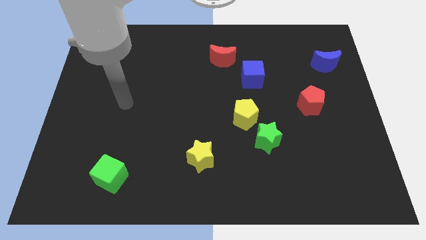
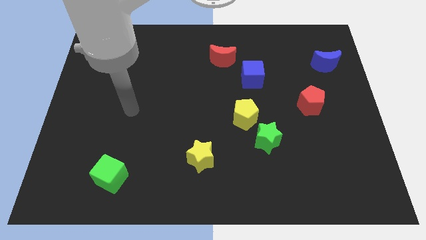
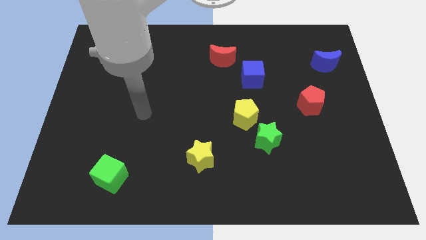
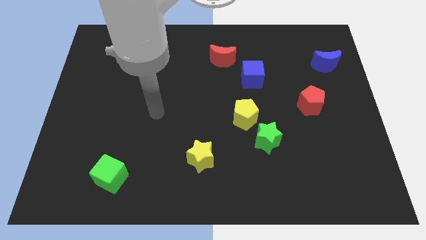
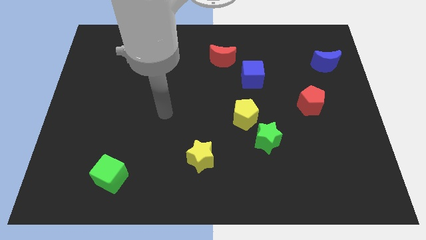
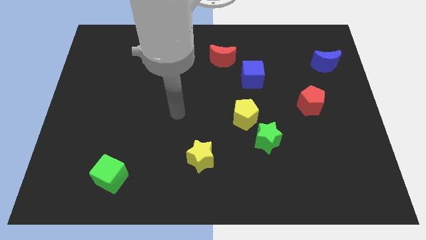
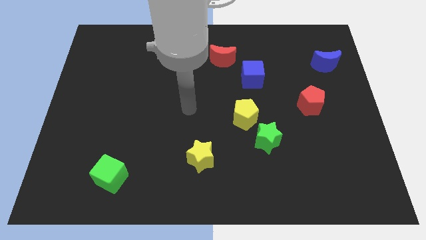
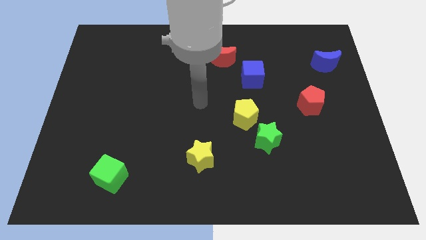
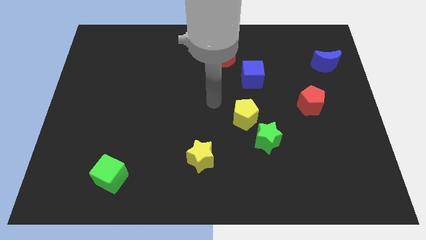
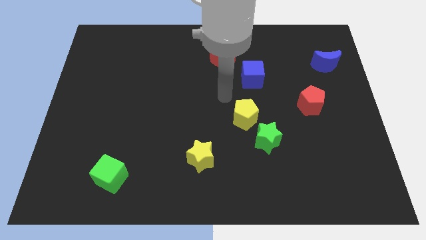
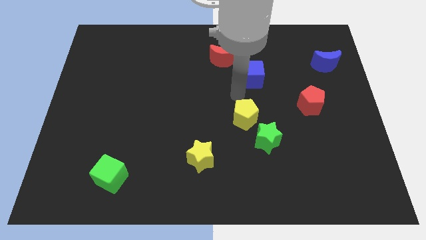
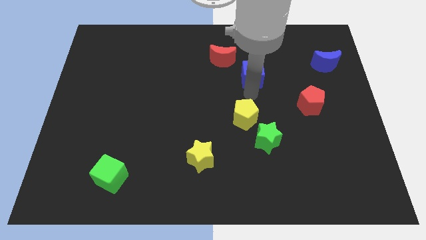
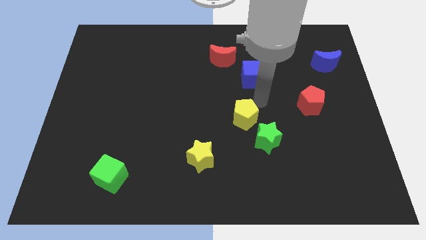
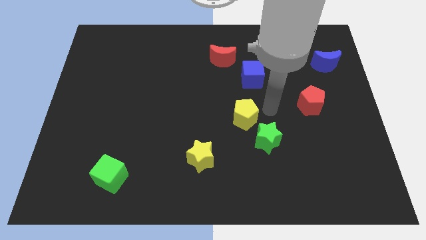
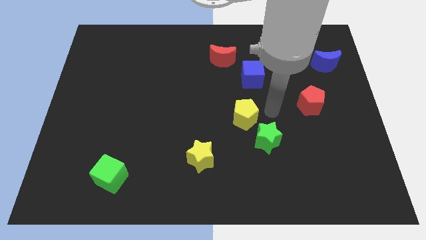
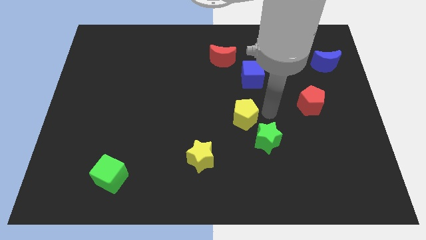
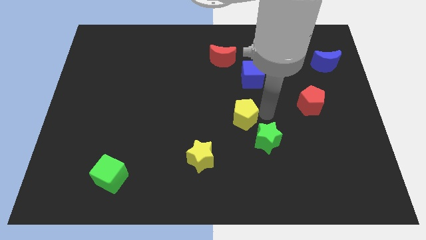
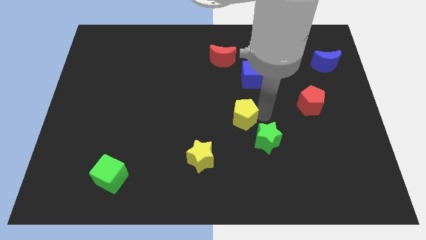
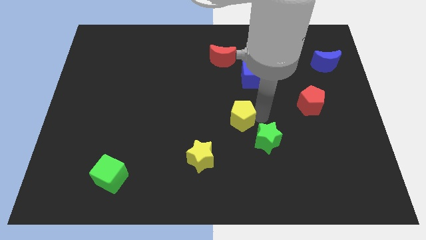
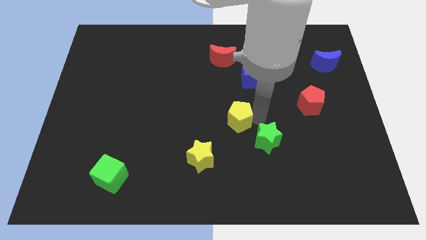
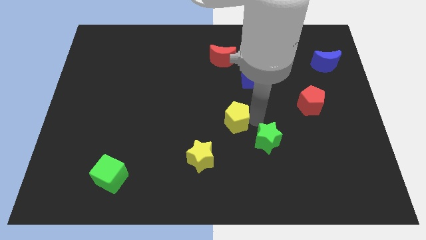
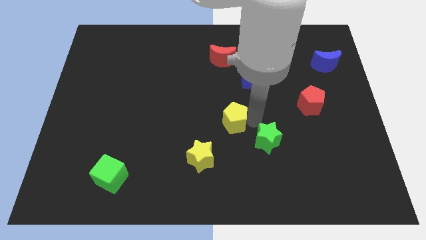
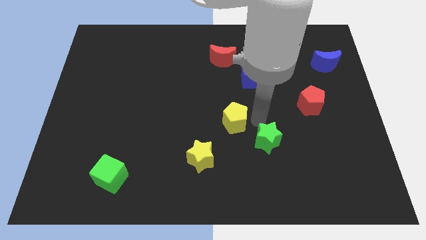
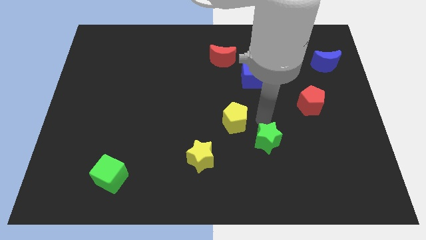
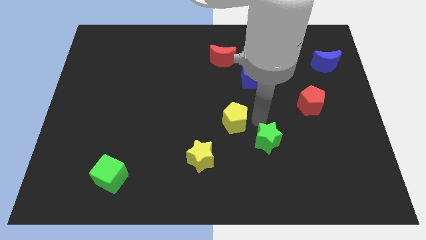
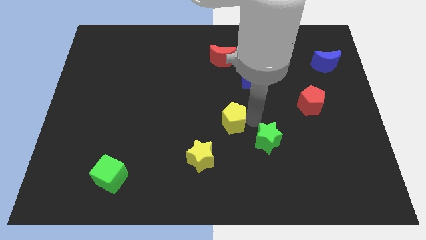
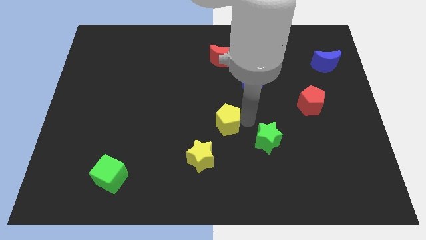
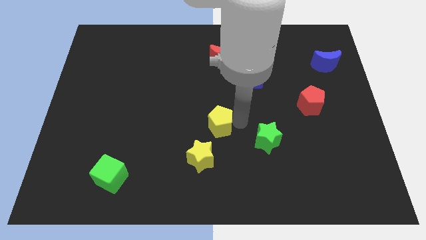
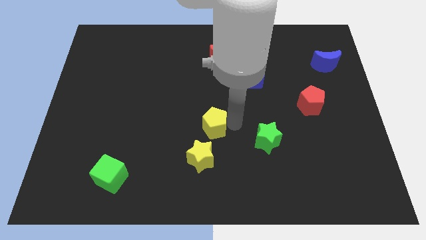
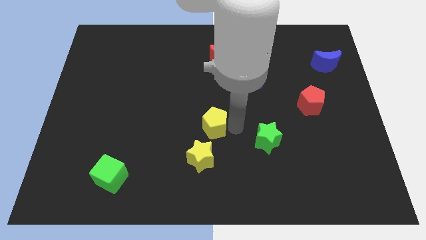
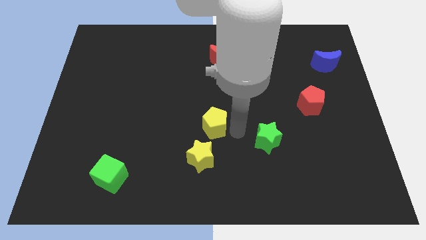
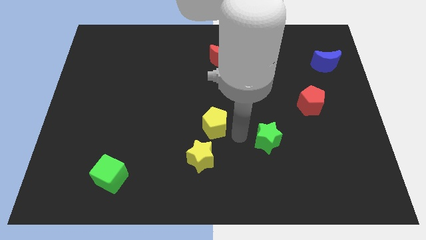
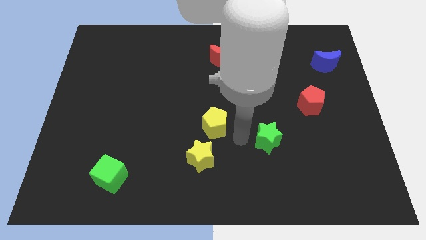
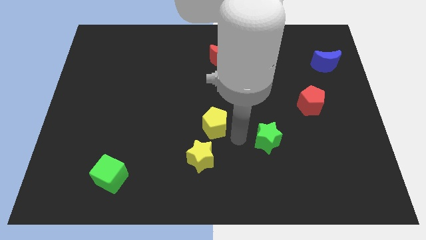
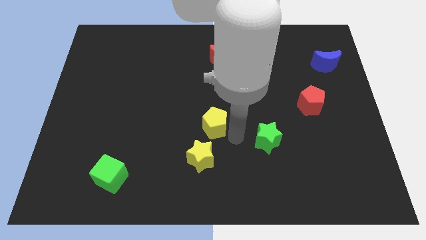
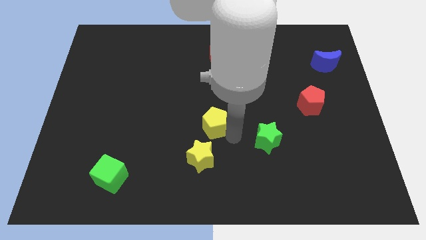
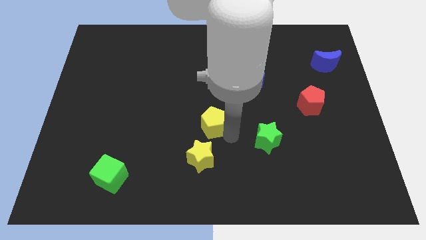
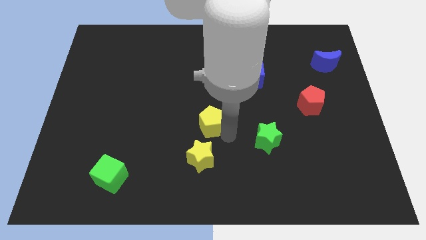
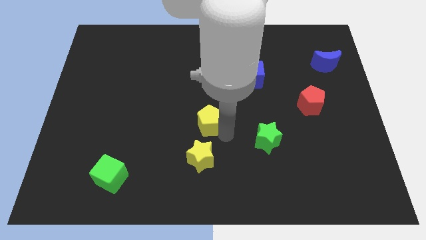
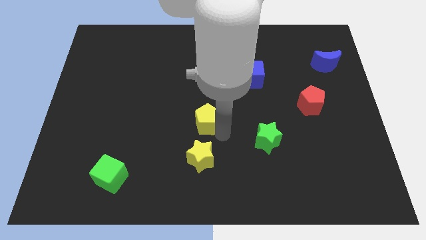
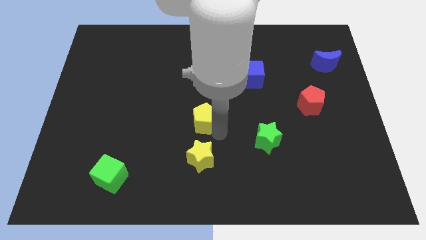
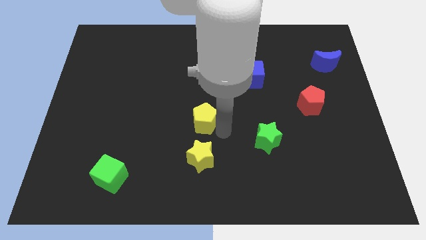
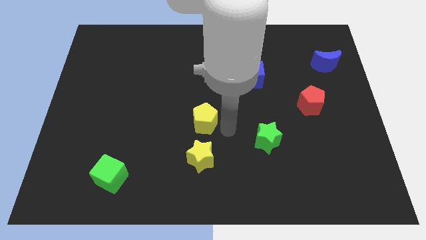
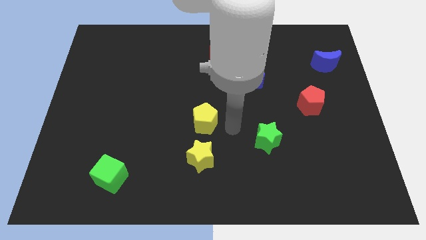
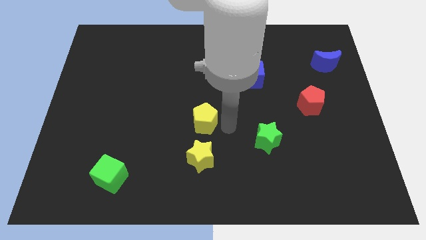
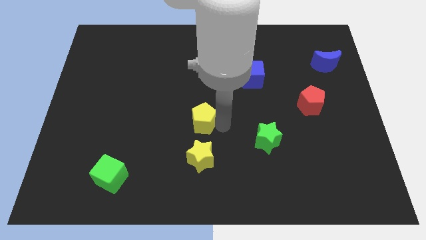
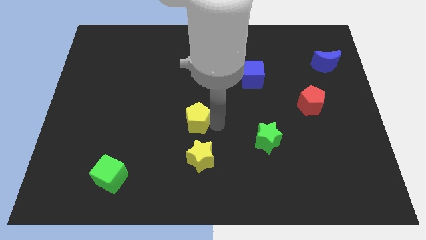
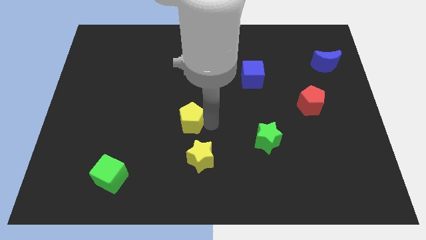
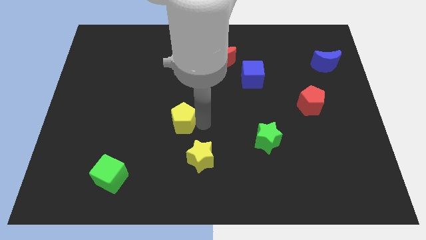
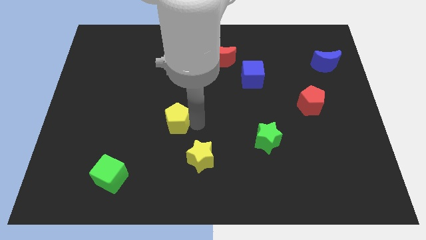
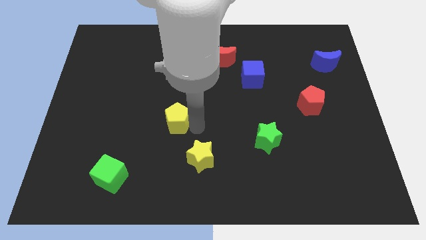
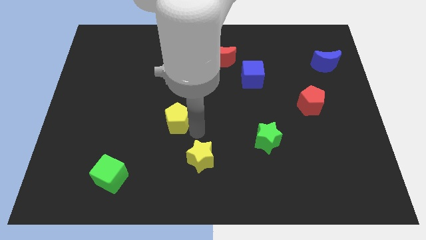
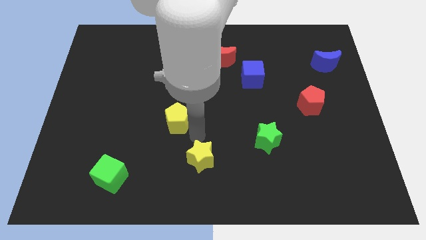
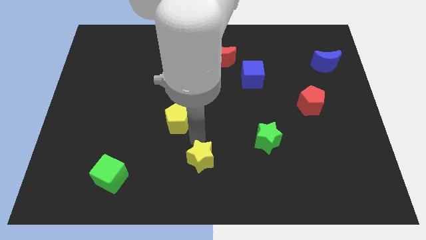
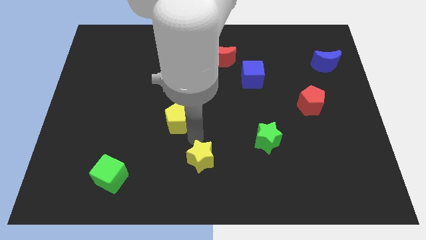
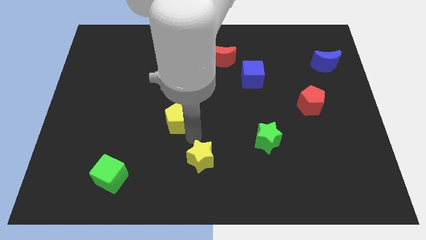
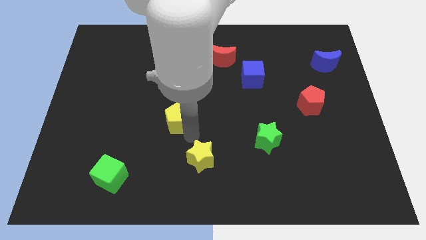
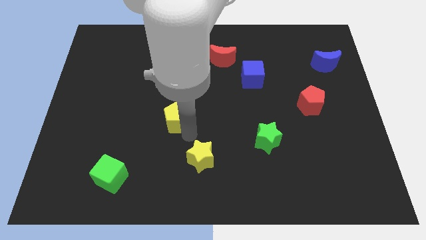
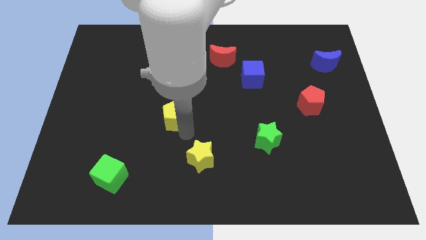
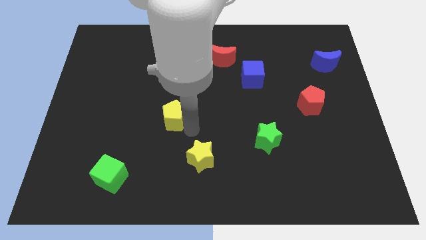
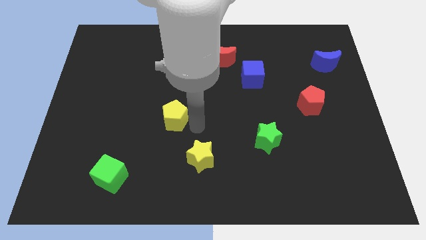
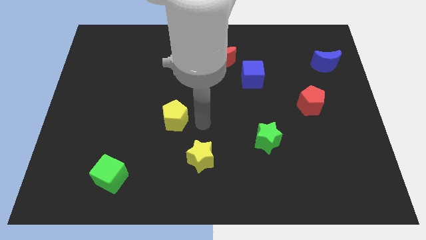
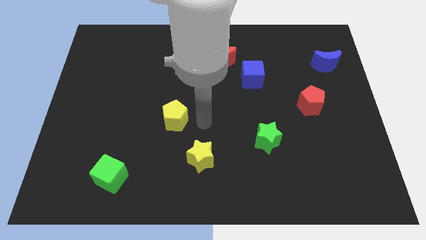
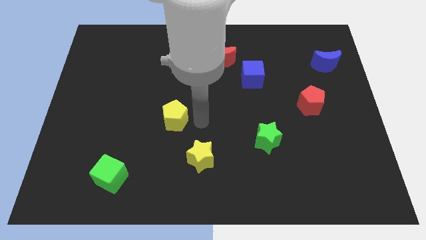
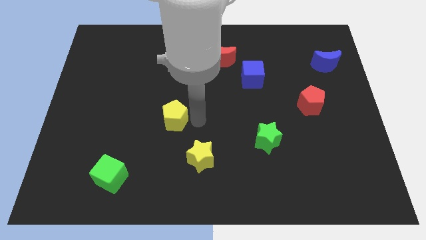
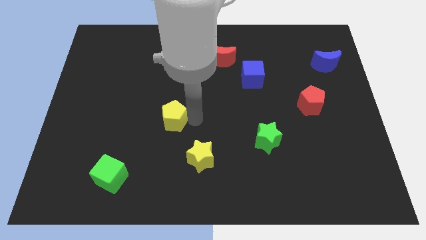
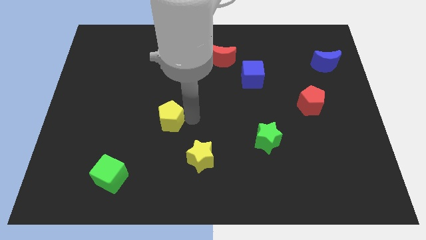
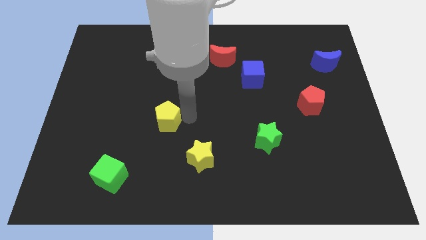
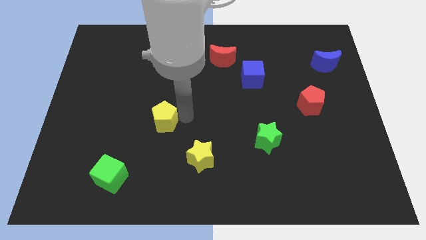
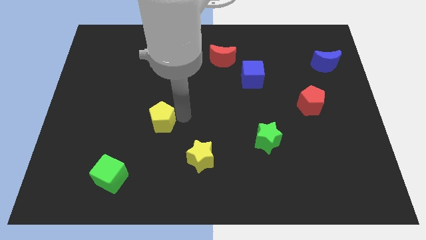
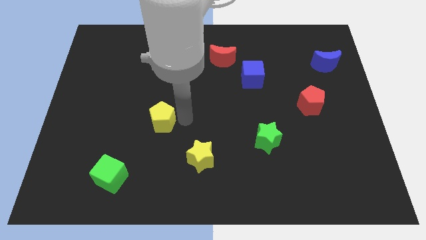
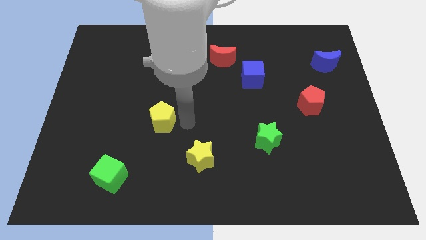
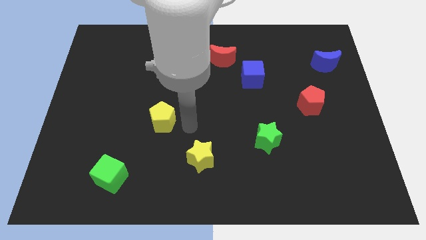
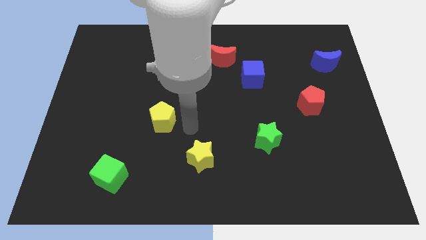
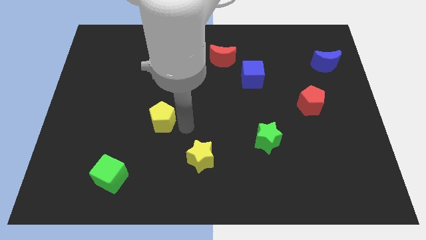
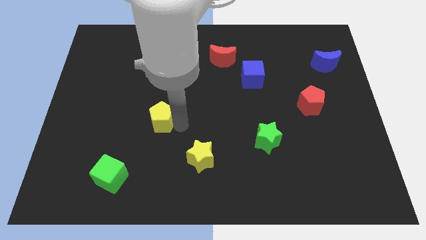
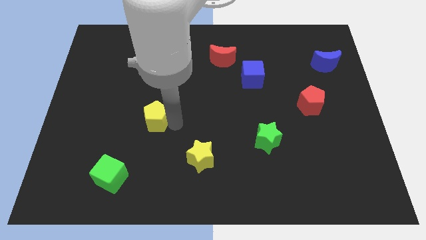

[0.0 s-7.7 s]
slide the yellow pentagon to the left

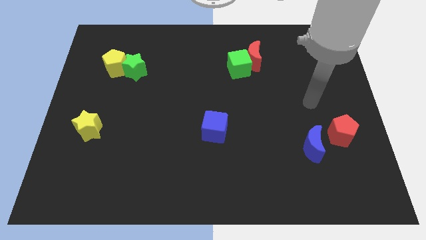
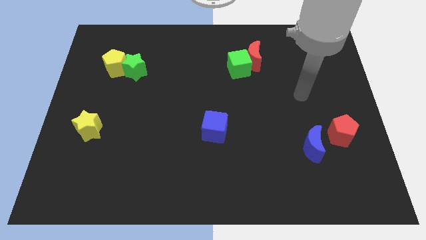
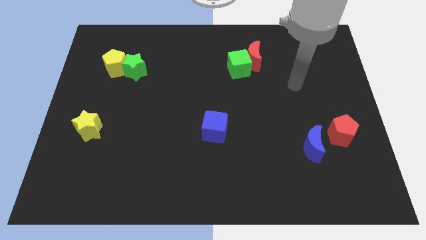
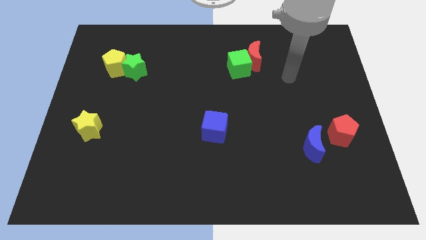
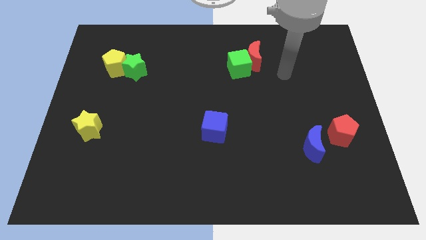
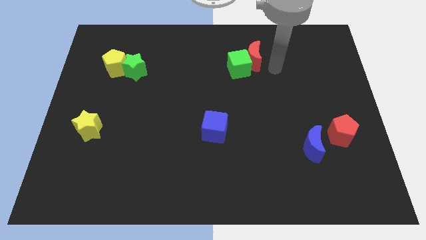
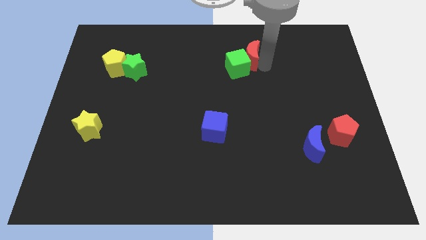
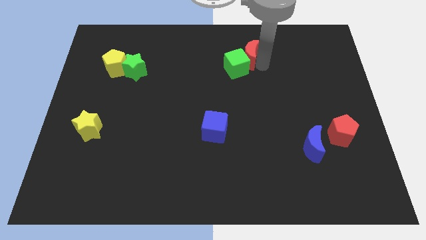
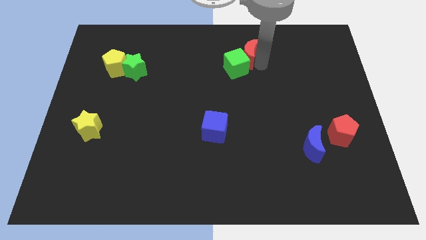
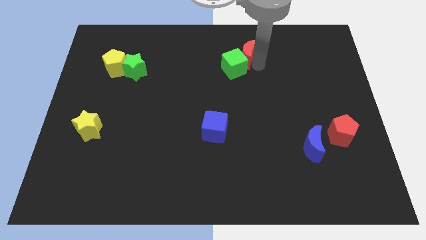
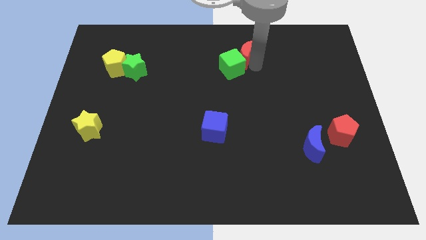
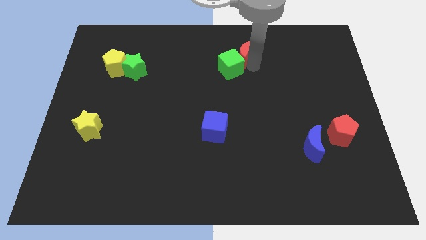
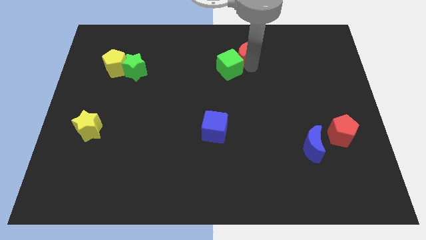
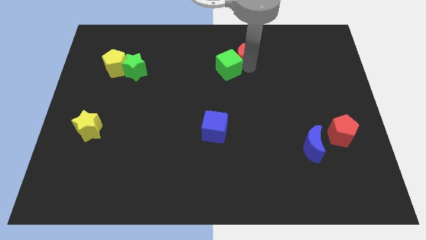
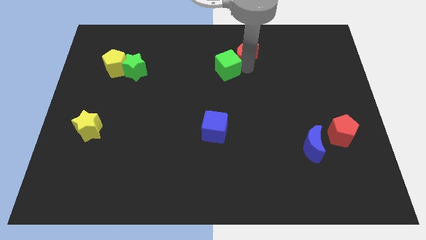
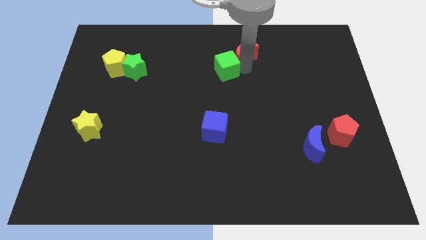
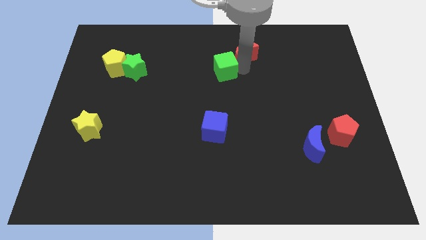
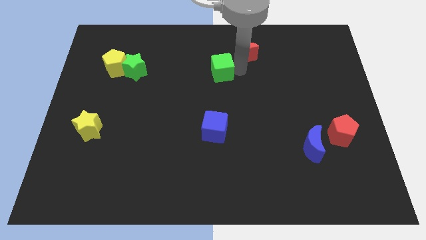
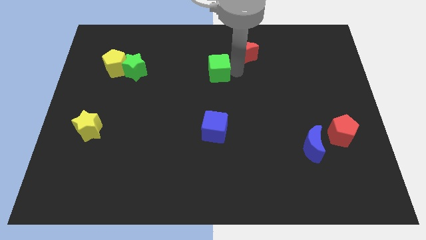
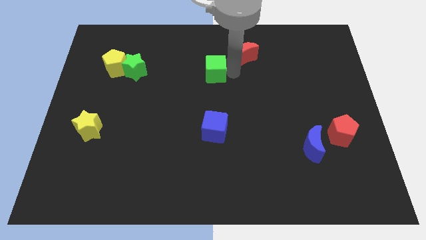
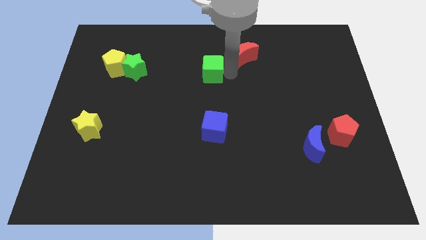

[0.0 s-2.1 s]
push the green cube somewhat left
